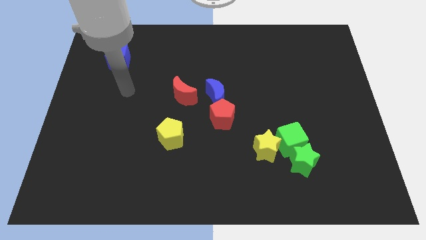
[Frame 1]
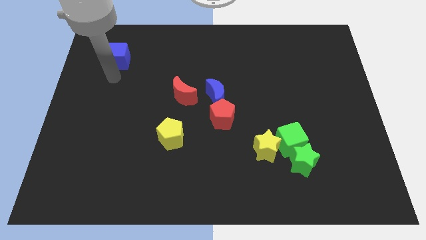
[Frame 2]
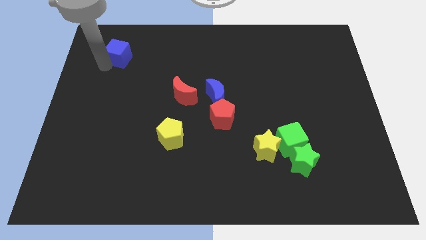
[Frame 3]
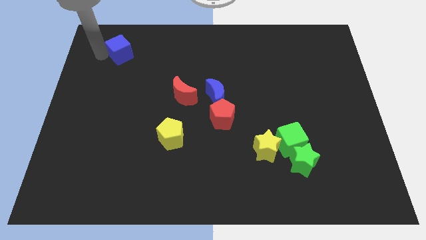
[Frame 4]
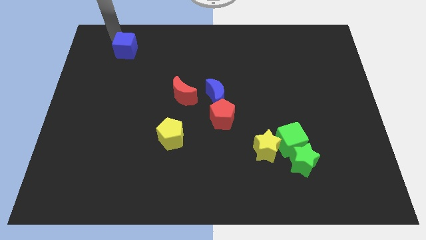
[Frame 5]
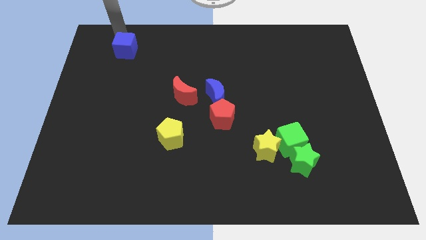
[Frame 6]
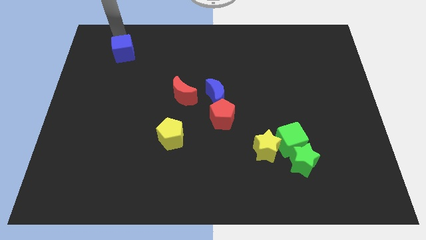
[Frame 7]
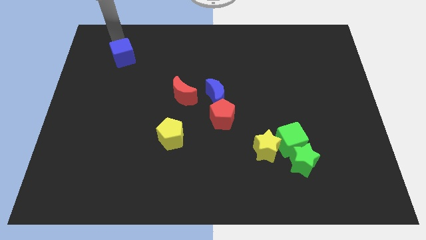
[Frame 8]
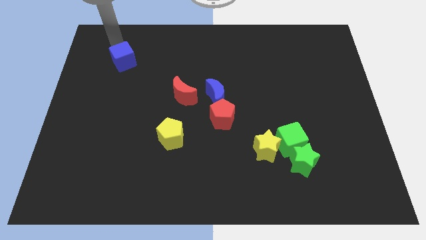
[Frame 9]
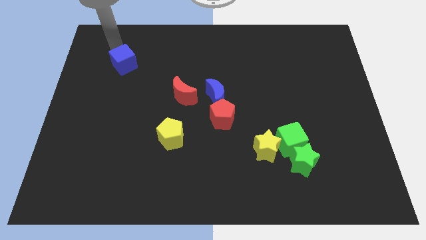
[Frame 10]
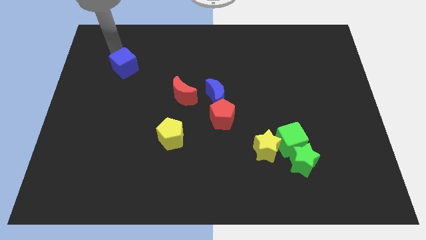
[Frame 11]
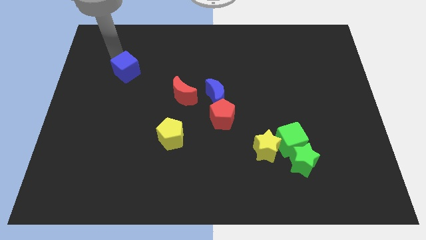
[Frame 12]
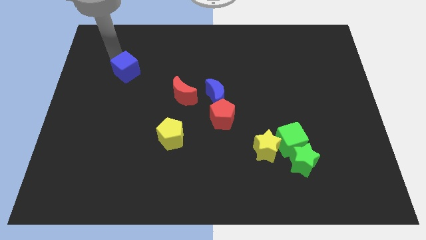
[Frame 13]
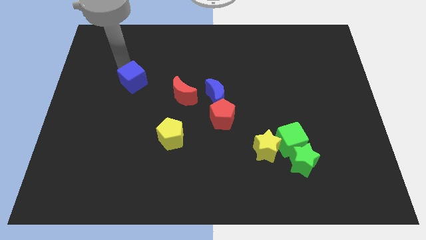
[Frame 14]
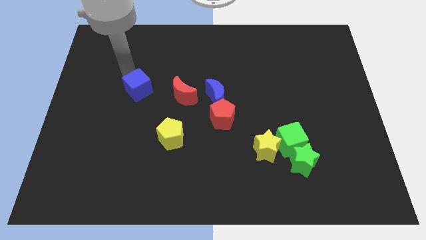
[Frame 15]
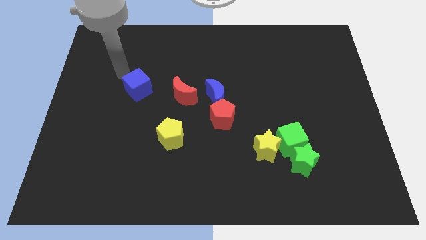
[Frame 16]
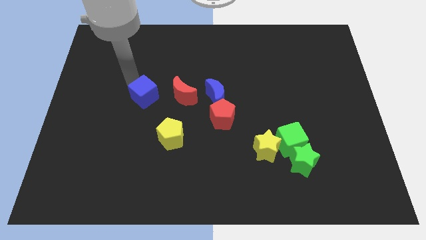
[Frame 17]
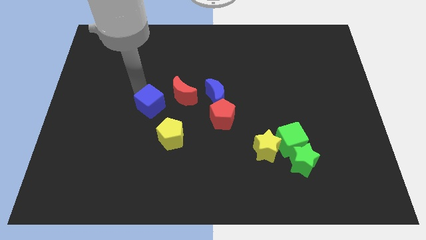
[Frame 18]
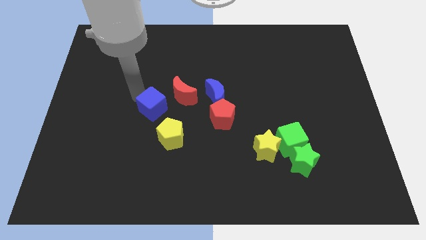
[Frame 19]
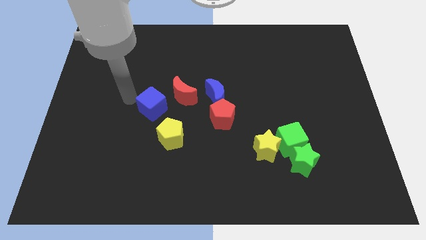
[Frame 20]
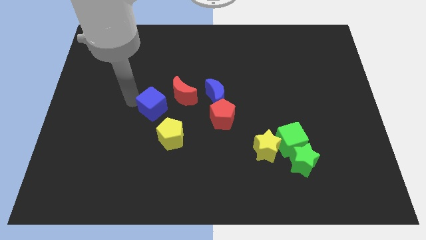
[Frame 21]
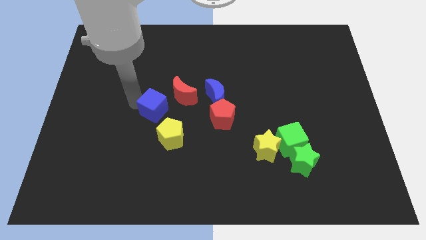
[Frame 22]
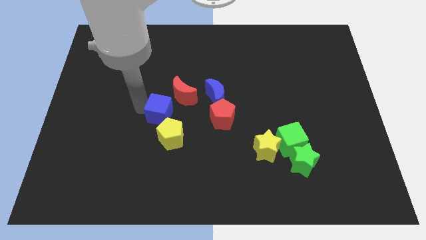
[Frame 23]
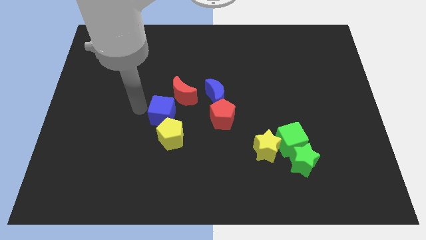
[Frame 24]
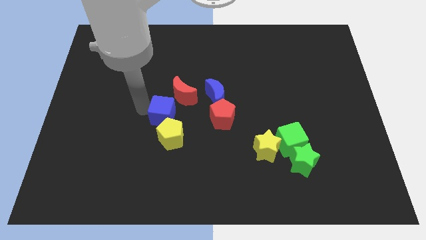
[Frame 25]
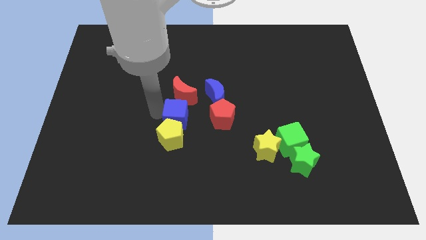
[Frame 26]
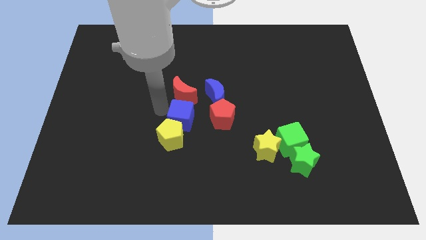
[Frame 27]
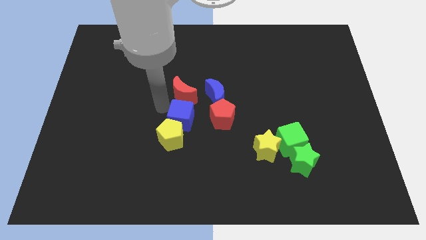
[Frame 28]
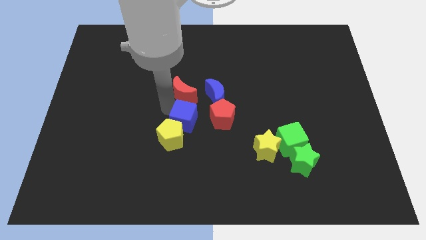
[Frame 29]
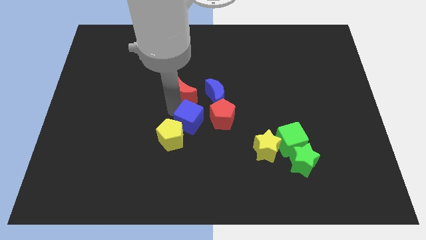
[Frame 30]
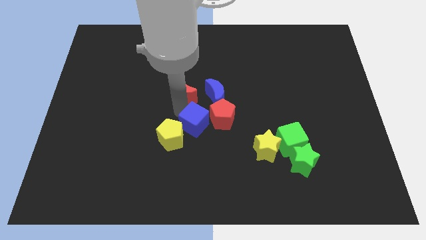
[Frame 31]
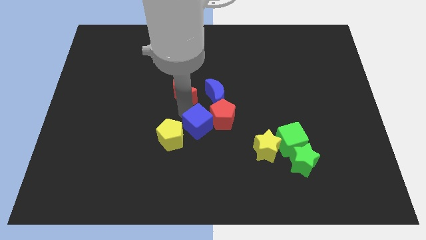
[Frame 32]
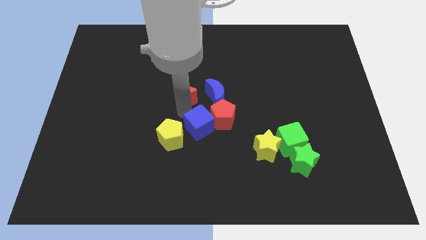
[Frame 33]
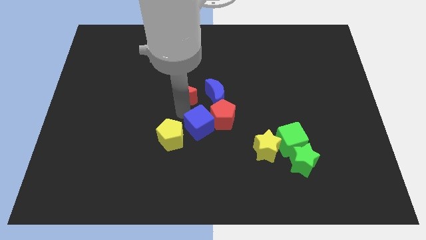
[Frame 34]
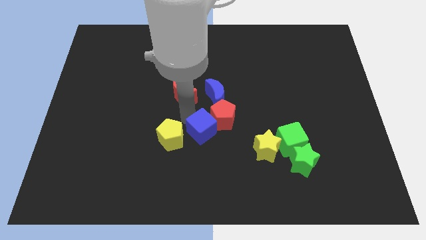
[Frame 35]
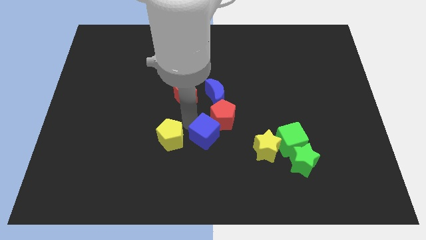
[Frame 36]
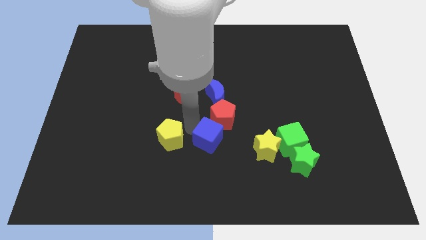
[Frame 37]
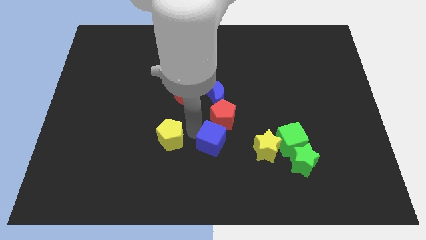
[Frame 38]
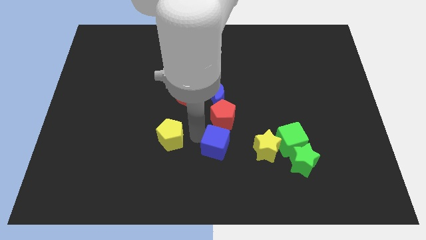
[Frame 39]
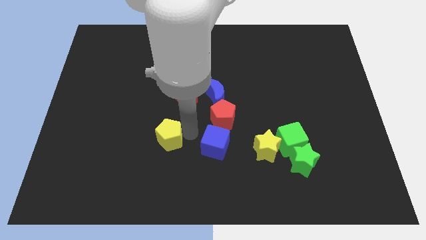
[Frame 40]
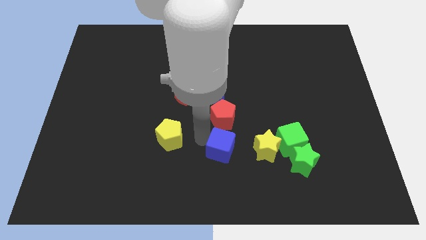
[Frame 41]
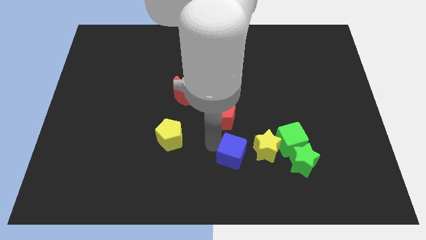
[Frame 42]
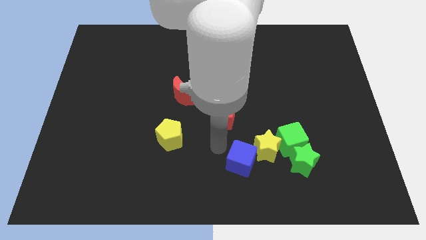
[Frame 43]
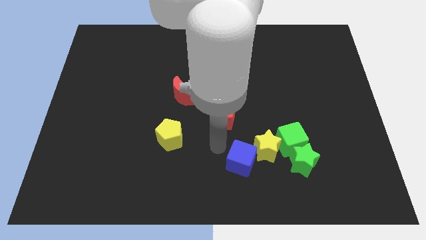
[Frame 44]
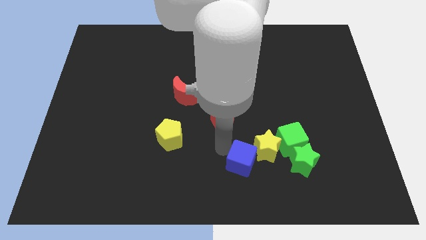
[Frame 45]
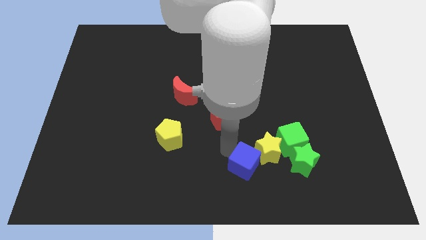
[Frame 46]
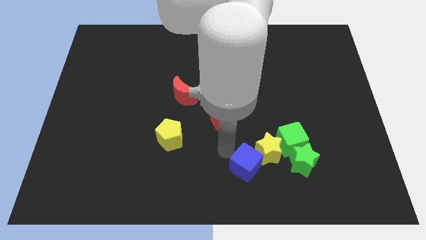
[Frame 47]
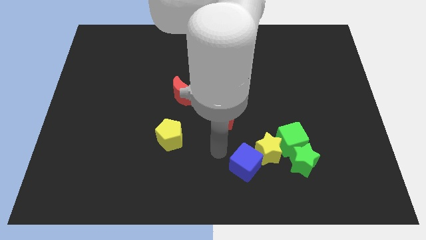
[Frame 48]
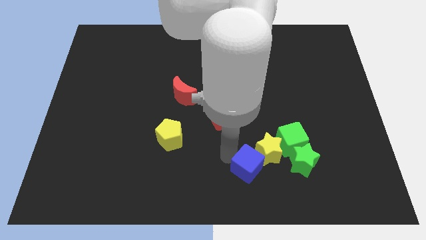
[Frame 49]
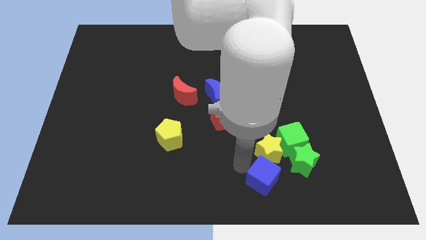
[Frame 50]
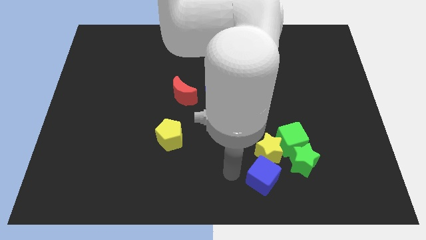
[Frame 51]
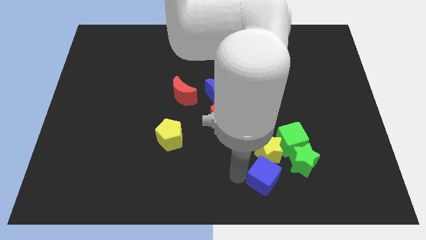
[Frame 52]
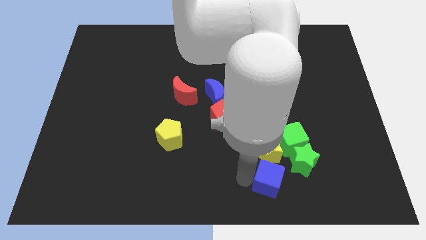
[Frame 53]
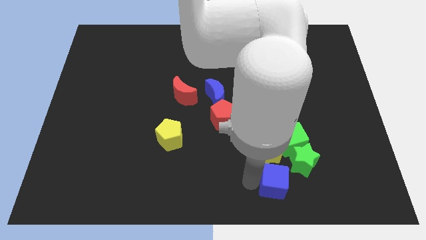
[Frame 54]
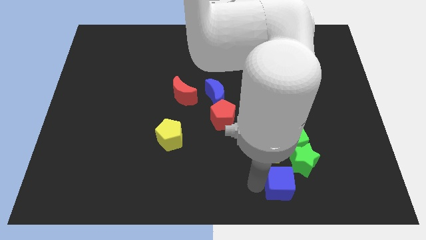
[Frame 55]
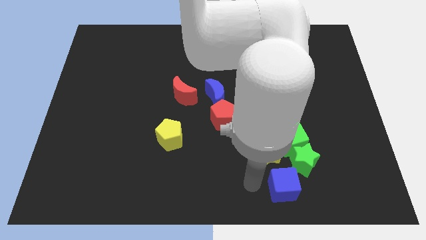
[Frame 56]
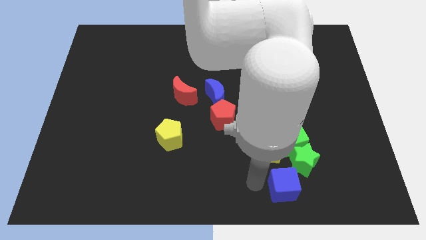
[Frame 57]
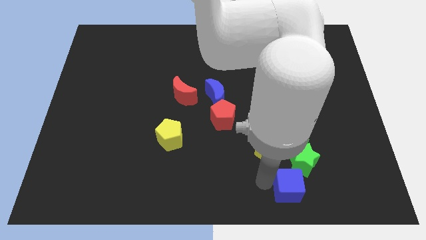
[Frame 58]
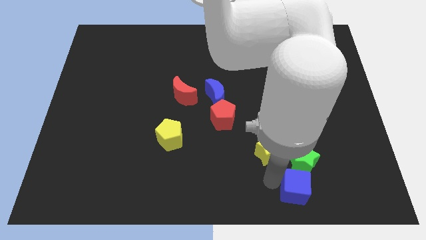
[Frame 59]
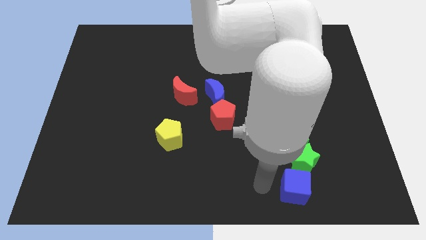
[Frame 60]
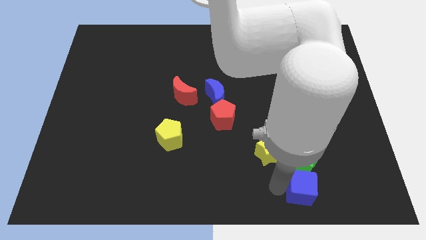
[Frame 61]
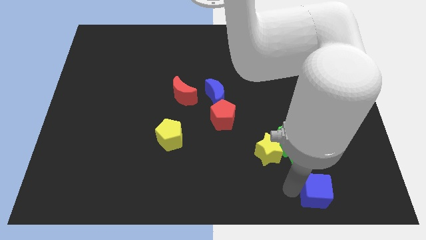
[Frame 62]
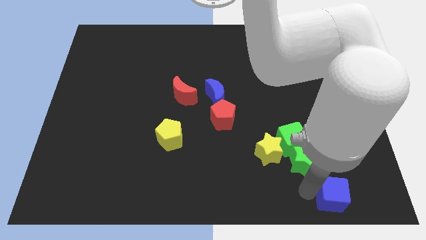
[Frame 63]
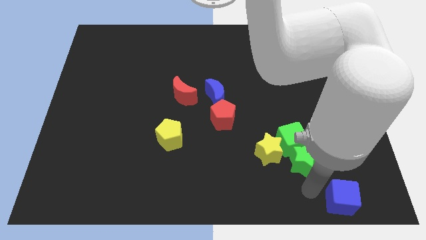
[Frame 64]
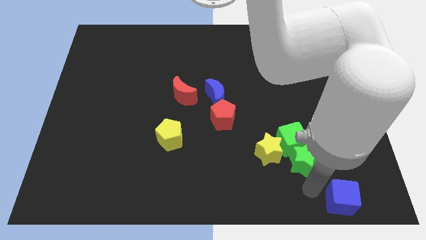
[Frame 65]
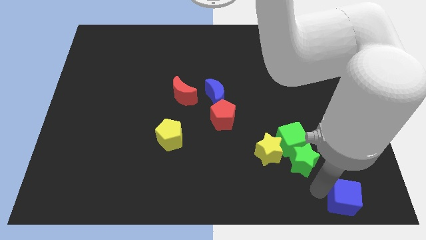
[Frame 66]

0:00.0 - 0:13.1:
put the blue cube to the bottom right corner

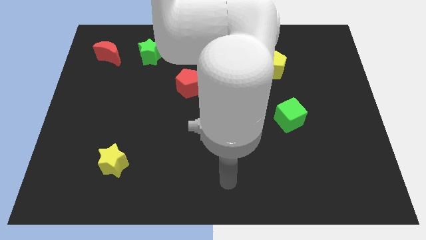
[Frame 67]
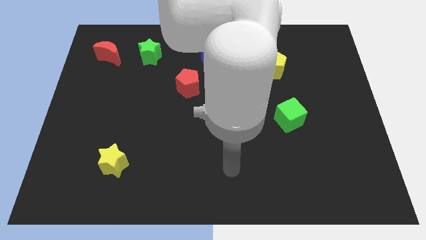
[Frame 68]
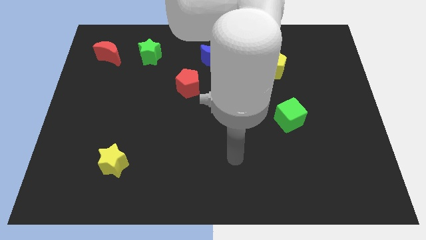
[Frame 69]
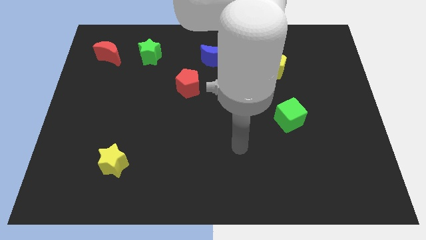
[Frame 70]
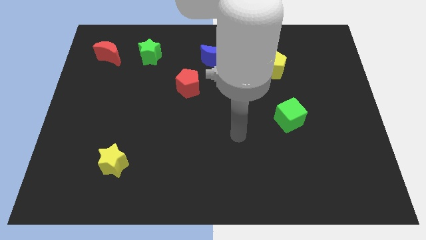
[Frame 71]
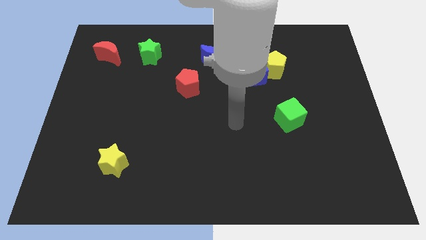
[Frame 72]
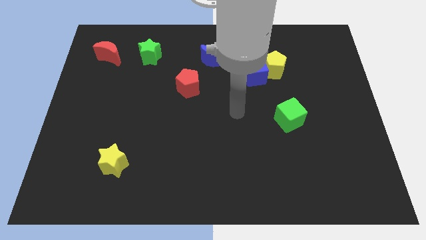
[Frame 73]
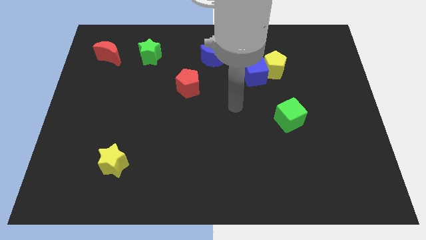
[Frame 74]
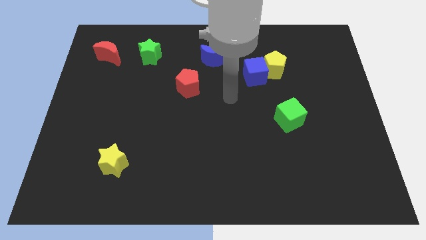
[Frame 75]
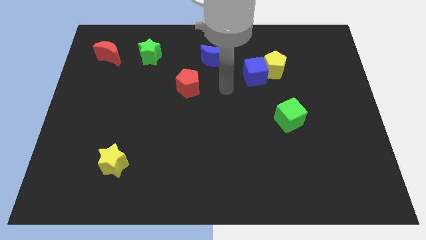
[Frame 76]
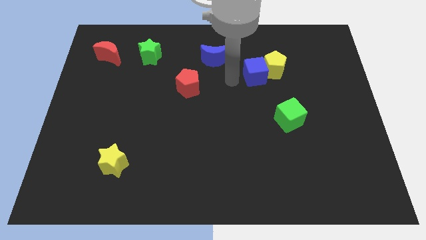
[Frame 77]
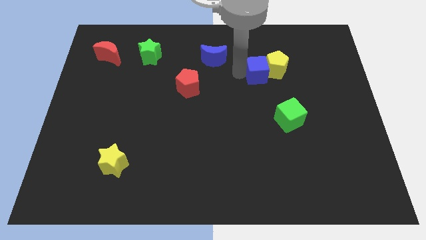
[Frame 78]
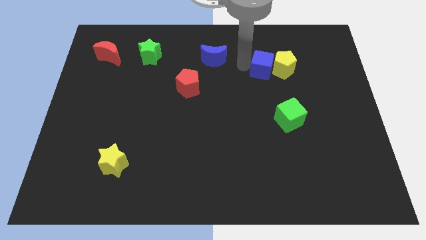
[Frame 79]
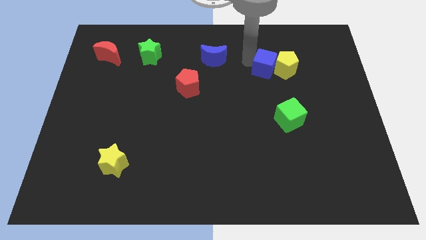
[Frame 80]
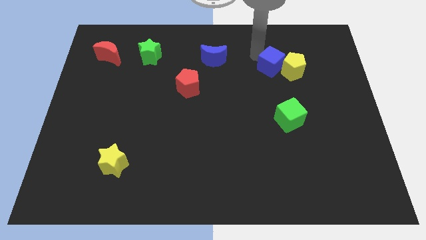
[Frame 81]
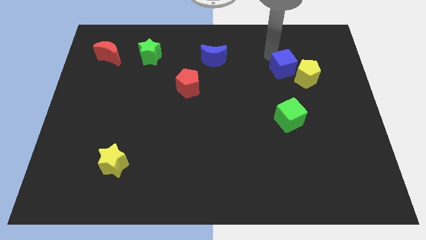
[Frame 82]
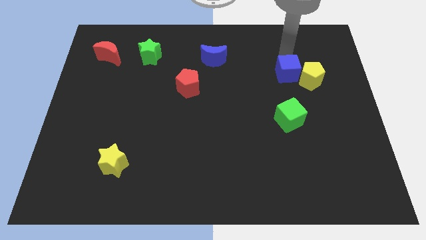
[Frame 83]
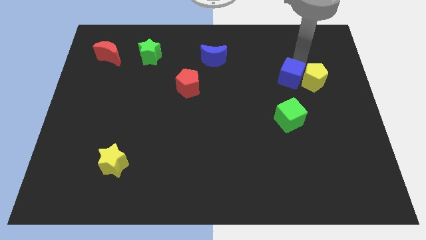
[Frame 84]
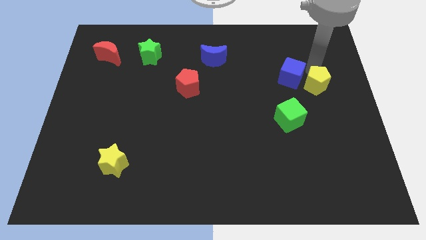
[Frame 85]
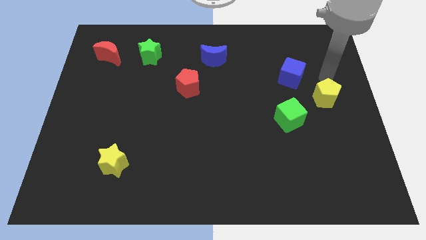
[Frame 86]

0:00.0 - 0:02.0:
slide the yellow pentagon to the right side of the board
